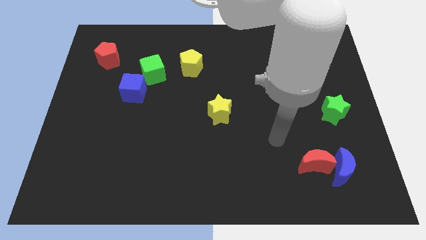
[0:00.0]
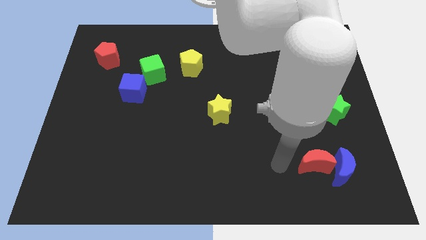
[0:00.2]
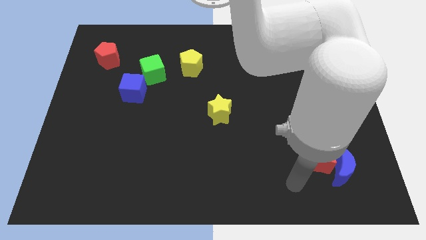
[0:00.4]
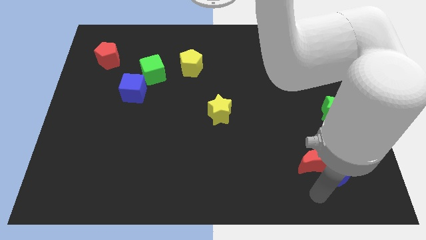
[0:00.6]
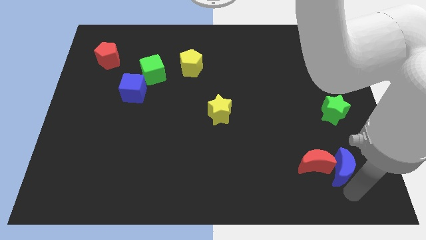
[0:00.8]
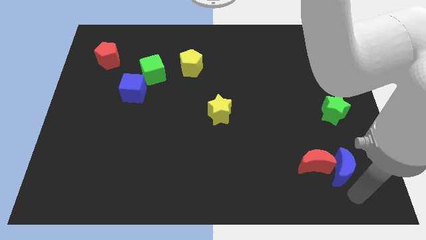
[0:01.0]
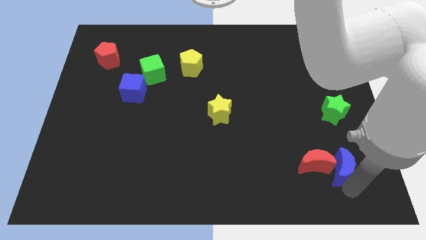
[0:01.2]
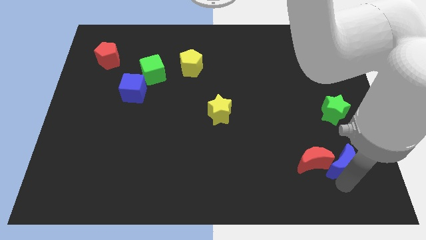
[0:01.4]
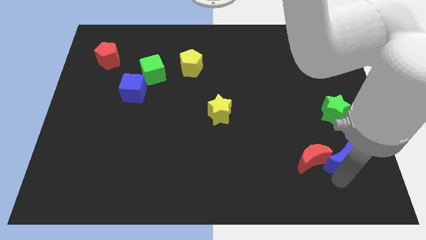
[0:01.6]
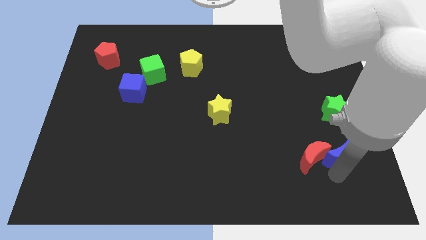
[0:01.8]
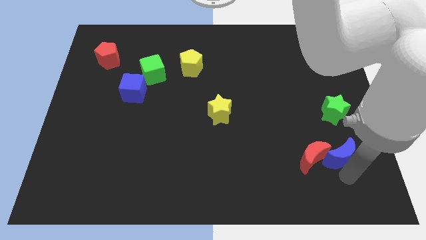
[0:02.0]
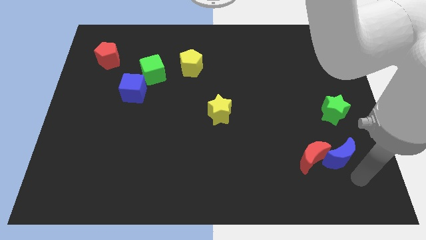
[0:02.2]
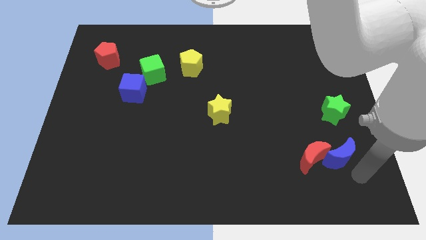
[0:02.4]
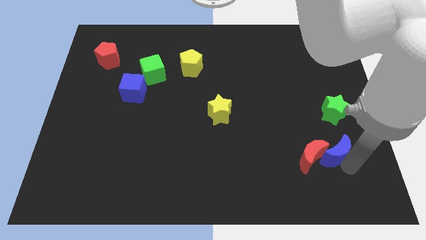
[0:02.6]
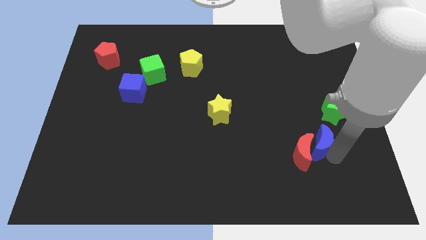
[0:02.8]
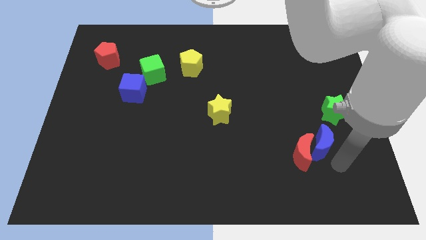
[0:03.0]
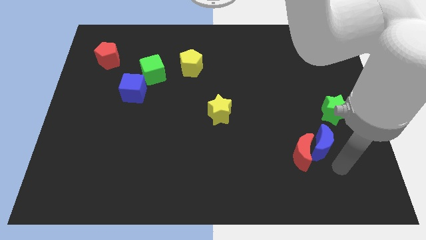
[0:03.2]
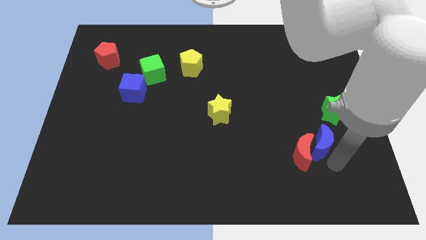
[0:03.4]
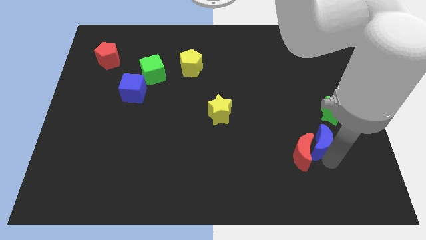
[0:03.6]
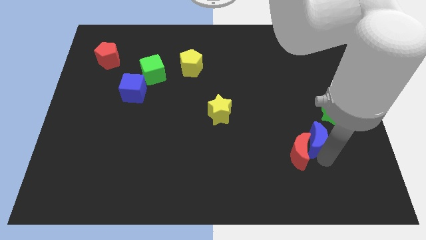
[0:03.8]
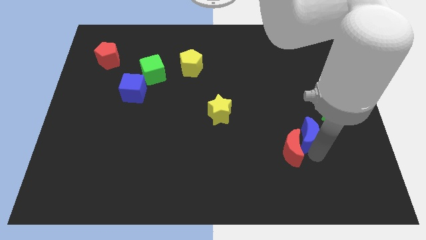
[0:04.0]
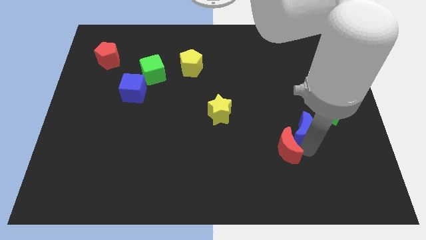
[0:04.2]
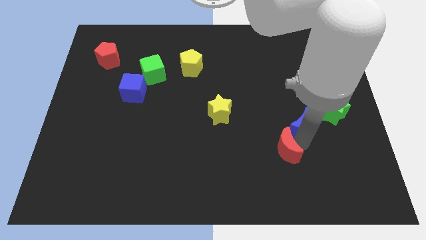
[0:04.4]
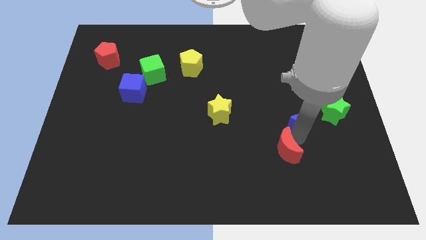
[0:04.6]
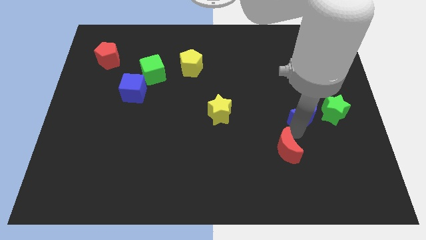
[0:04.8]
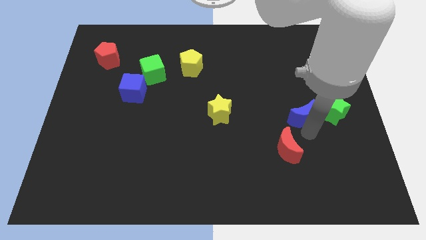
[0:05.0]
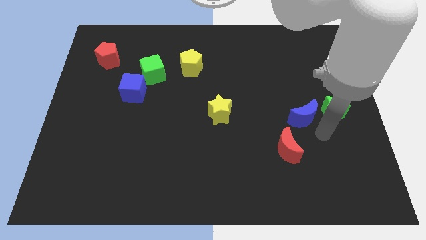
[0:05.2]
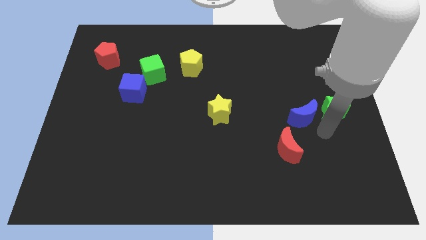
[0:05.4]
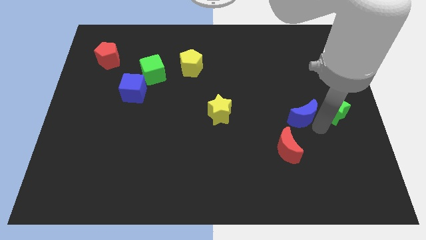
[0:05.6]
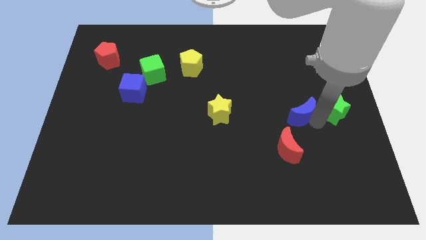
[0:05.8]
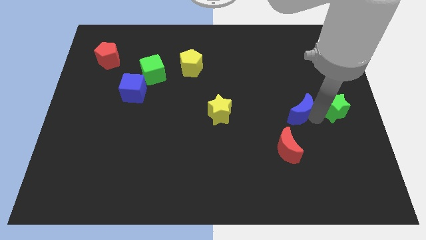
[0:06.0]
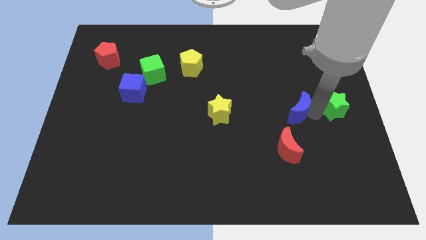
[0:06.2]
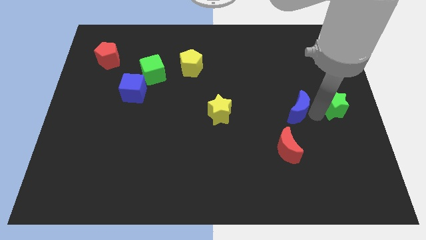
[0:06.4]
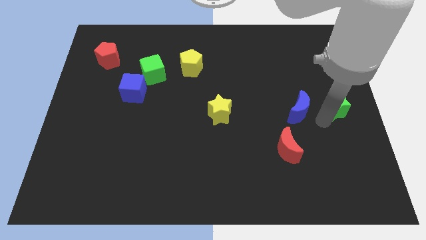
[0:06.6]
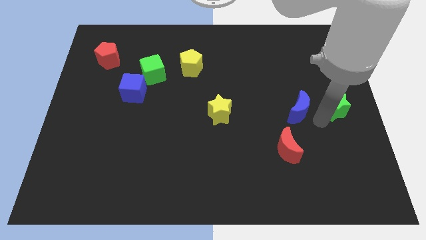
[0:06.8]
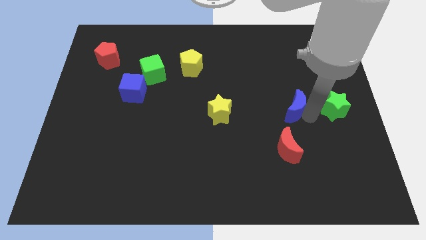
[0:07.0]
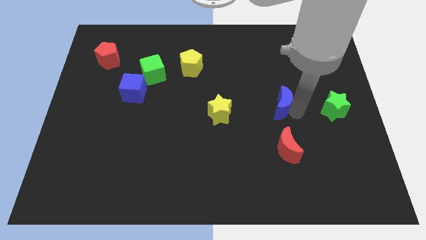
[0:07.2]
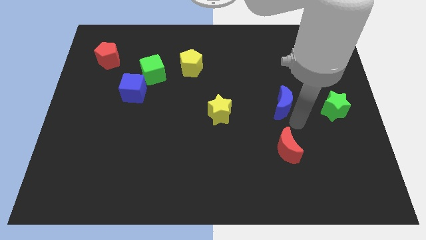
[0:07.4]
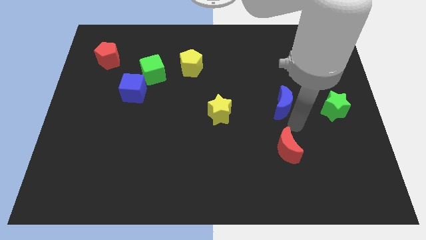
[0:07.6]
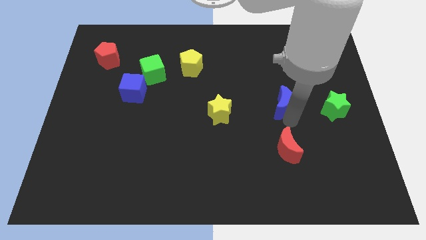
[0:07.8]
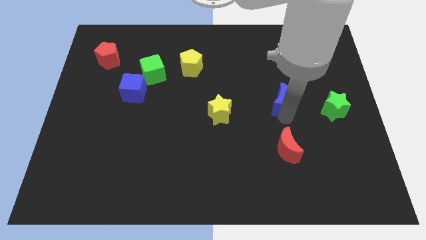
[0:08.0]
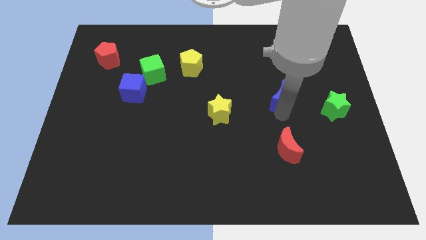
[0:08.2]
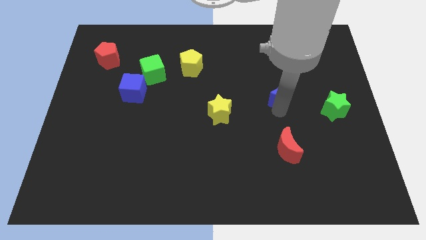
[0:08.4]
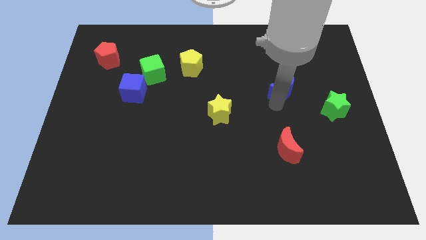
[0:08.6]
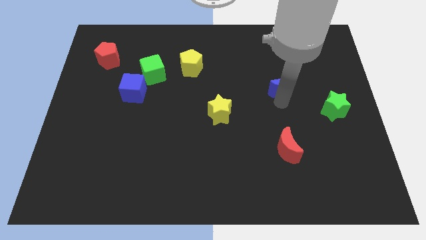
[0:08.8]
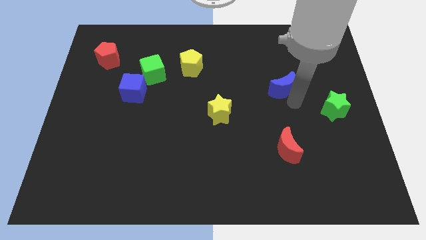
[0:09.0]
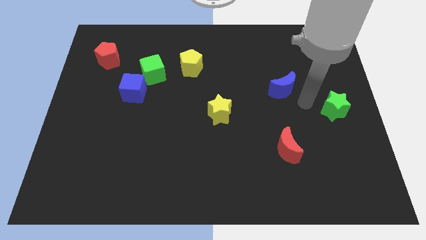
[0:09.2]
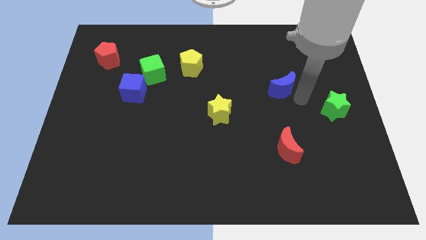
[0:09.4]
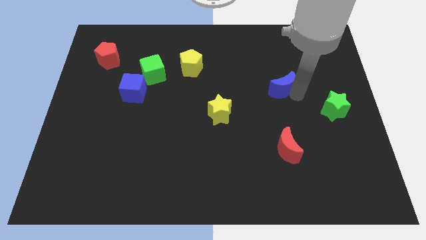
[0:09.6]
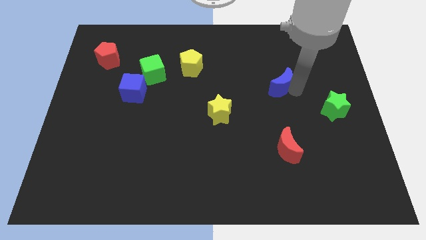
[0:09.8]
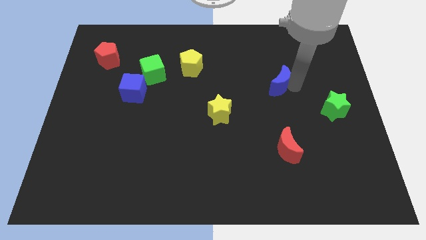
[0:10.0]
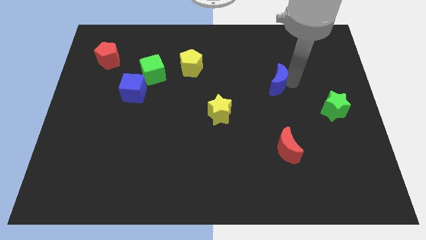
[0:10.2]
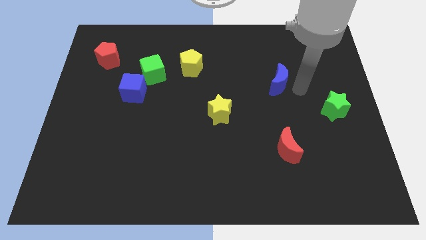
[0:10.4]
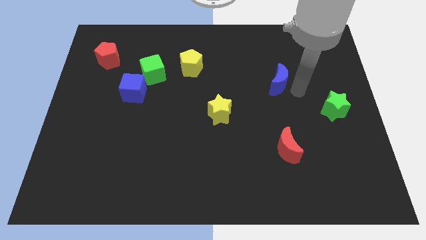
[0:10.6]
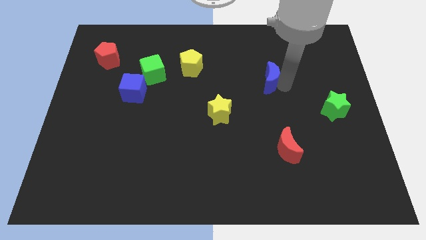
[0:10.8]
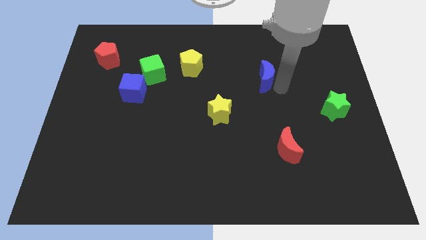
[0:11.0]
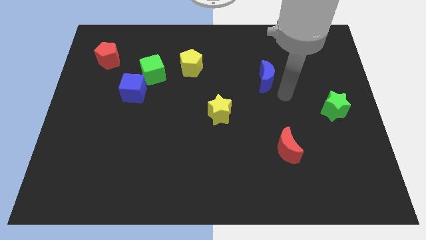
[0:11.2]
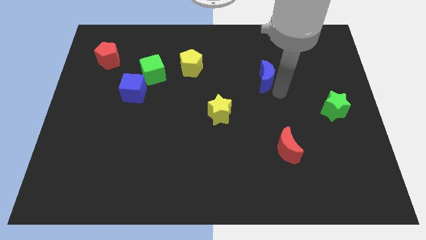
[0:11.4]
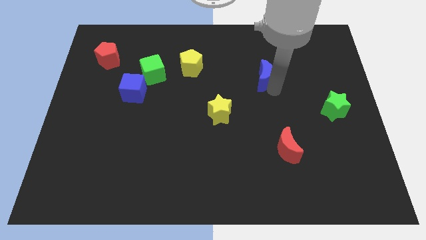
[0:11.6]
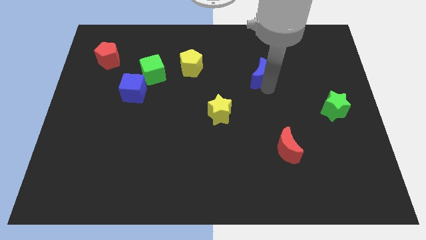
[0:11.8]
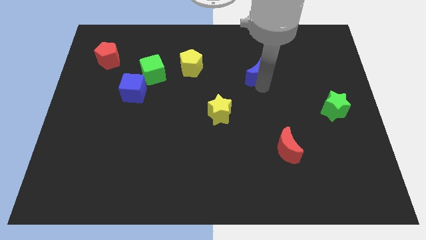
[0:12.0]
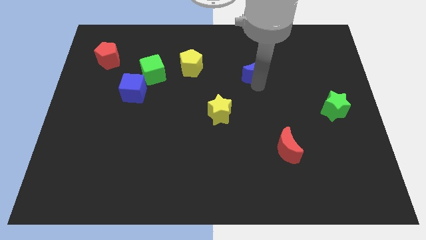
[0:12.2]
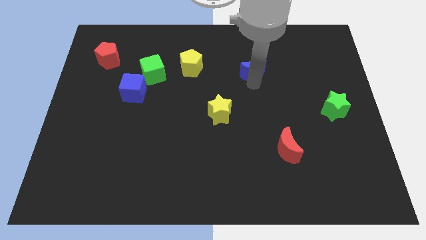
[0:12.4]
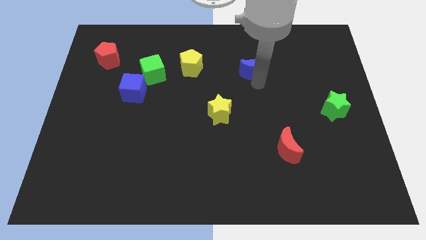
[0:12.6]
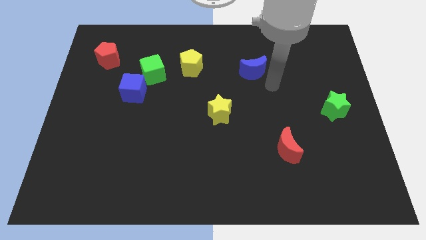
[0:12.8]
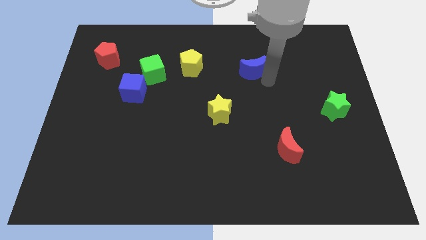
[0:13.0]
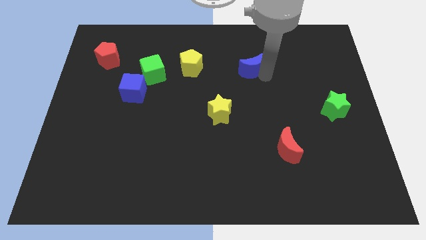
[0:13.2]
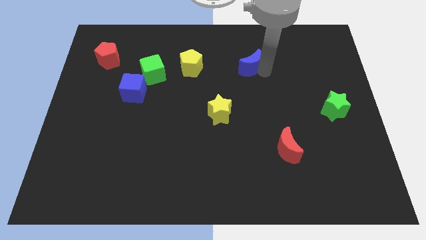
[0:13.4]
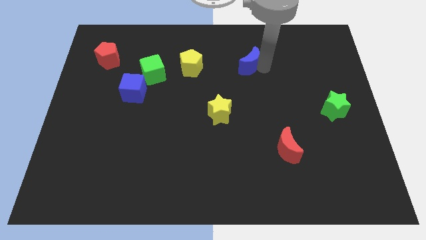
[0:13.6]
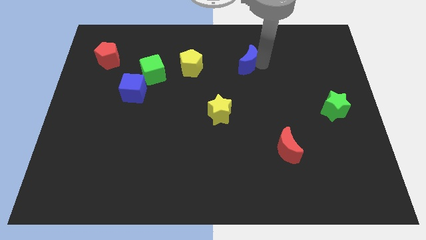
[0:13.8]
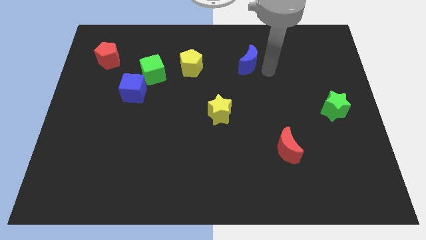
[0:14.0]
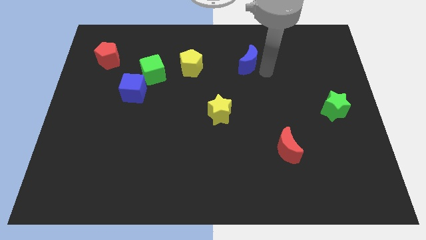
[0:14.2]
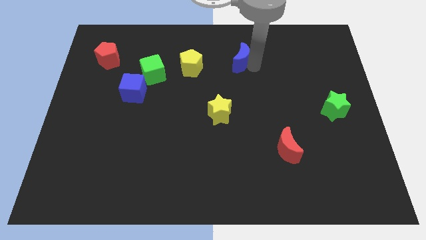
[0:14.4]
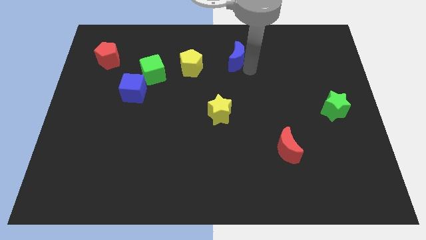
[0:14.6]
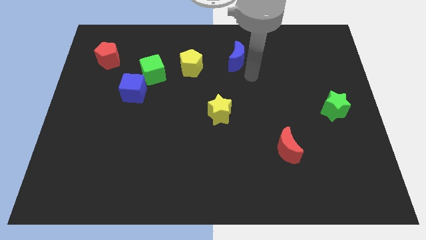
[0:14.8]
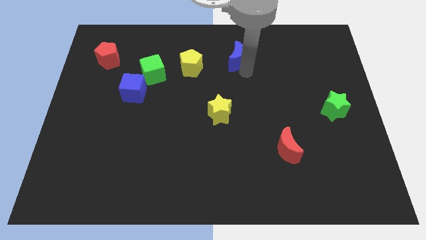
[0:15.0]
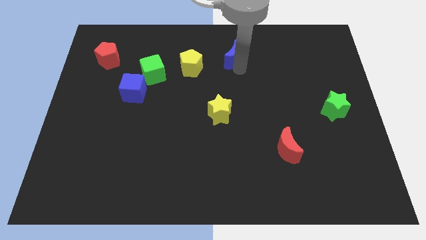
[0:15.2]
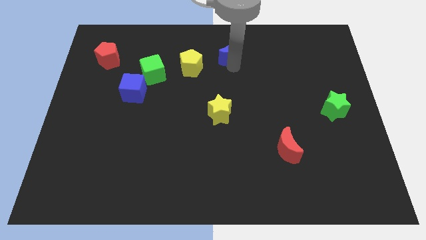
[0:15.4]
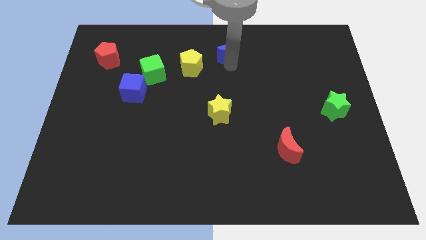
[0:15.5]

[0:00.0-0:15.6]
slide the blue moon to the towards your base
